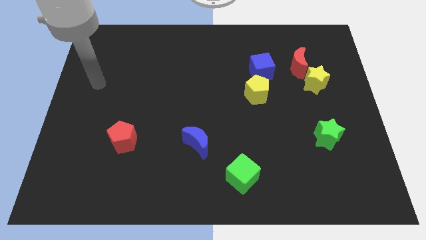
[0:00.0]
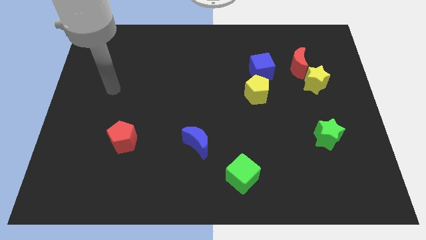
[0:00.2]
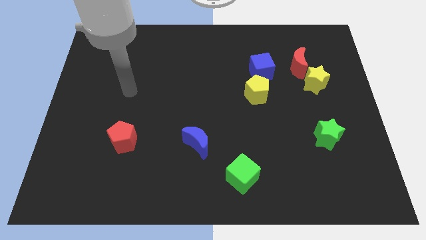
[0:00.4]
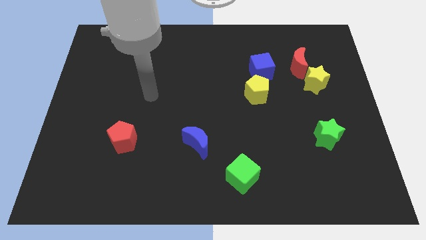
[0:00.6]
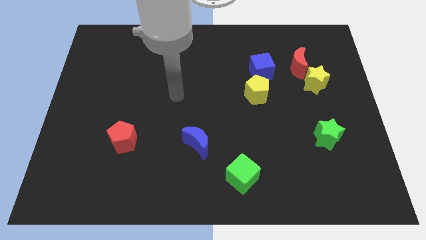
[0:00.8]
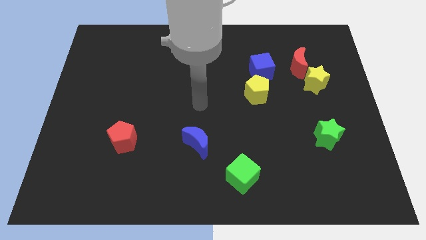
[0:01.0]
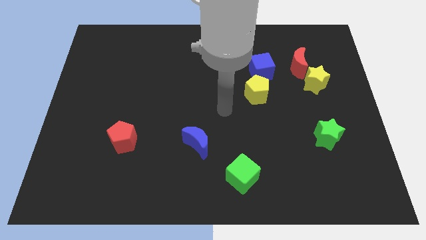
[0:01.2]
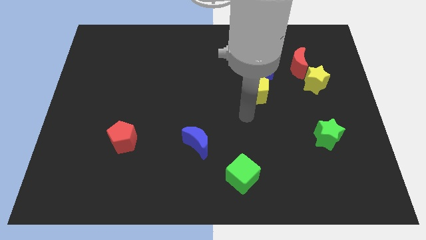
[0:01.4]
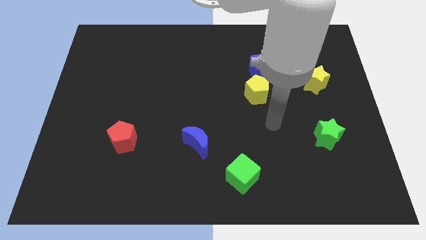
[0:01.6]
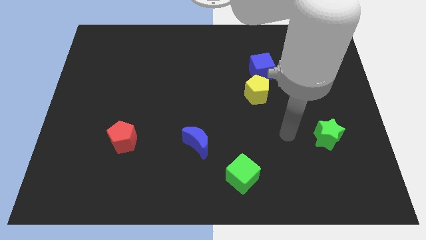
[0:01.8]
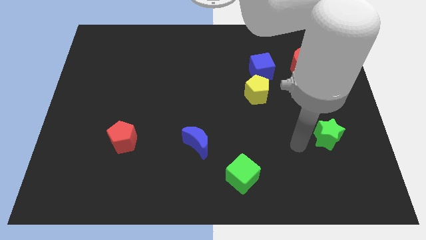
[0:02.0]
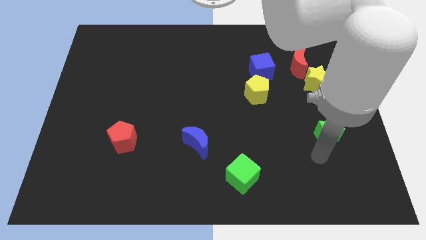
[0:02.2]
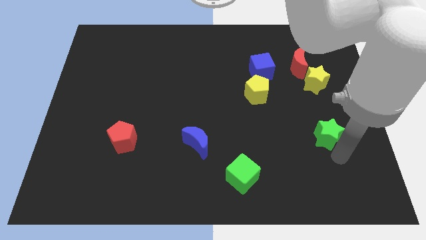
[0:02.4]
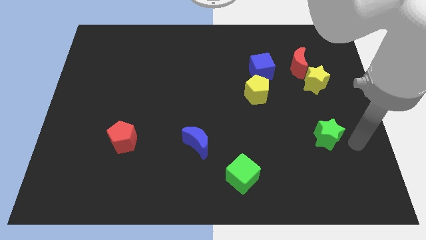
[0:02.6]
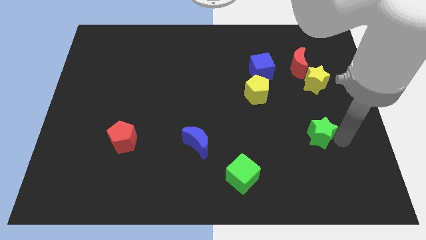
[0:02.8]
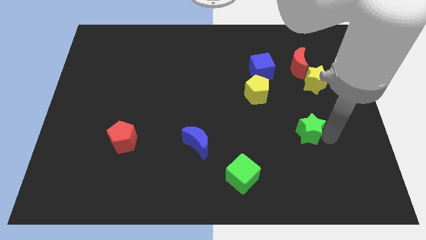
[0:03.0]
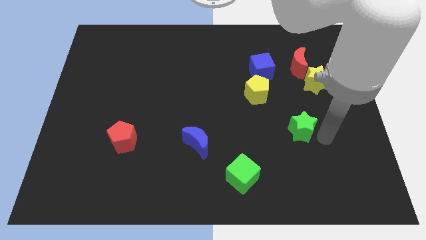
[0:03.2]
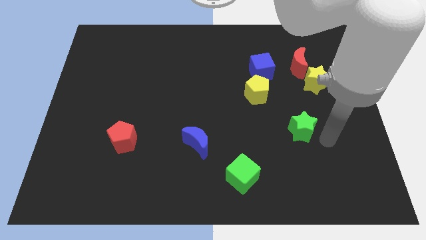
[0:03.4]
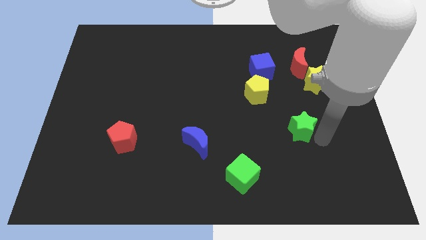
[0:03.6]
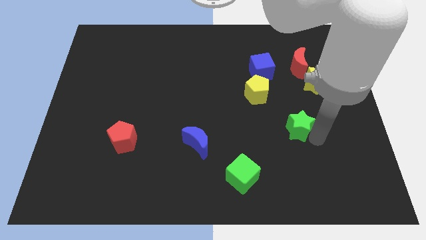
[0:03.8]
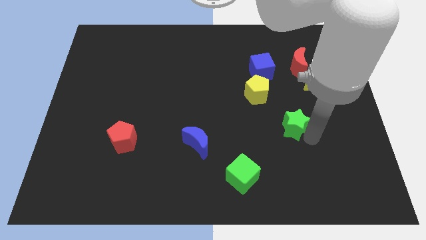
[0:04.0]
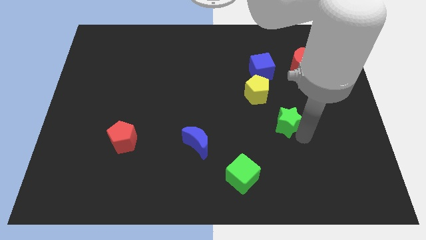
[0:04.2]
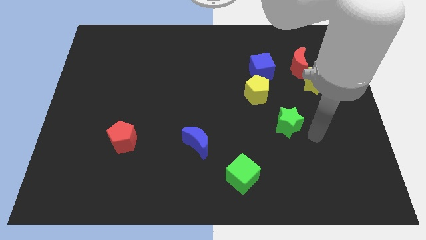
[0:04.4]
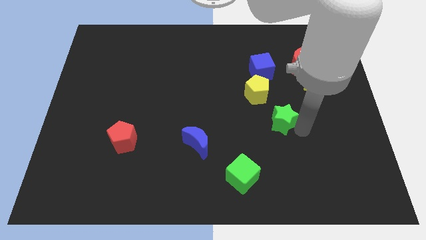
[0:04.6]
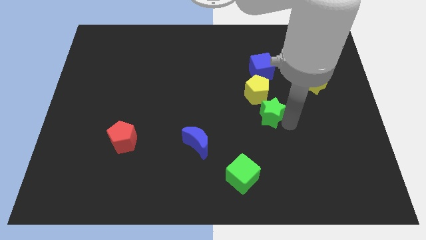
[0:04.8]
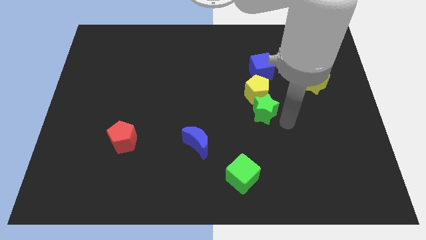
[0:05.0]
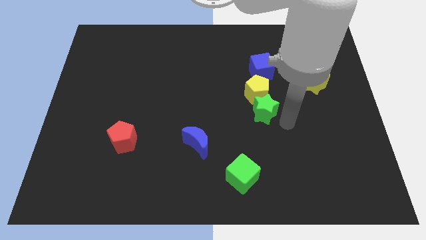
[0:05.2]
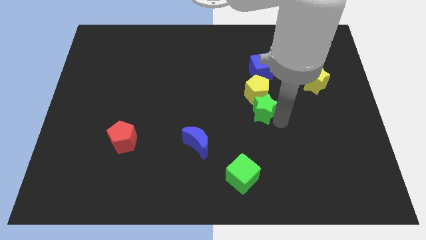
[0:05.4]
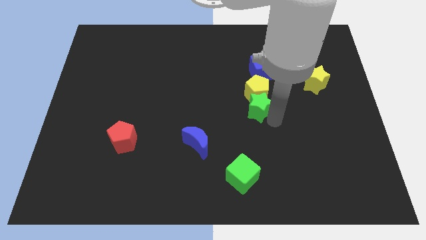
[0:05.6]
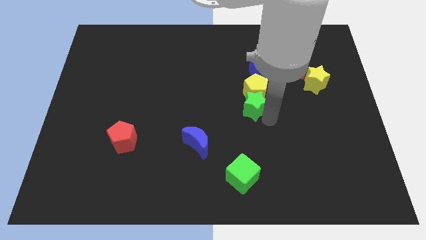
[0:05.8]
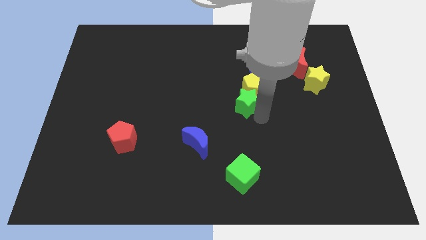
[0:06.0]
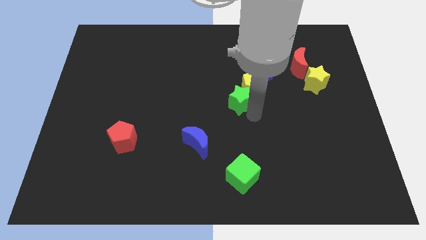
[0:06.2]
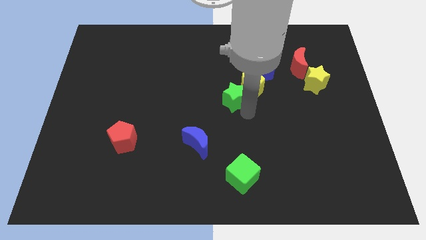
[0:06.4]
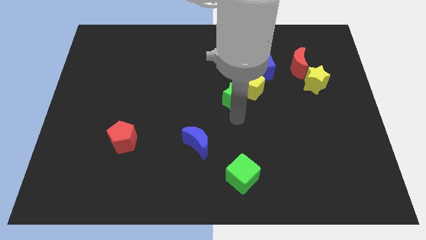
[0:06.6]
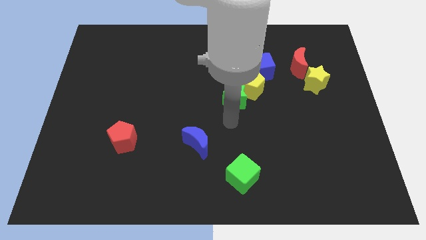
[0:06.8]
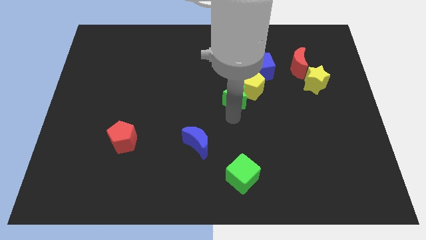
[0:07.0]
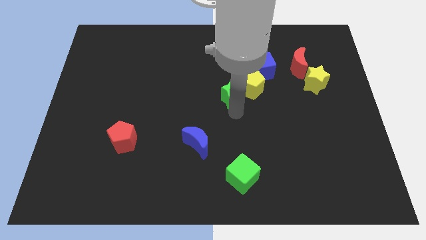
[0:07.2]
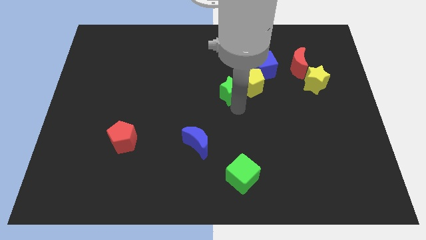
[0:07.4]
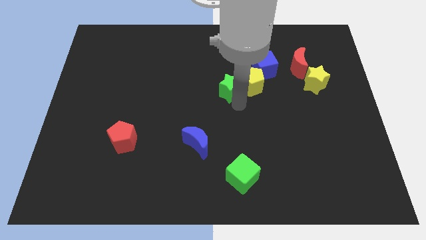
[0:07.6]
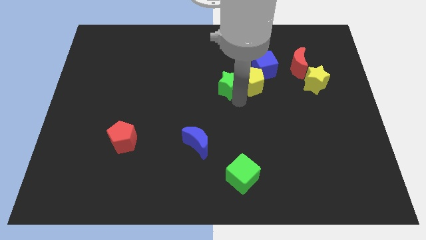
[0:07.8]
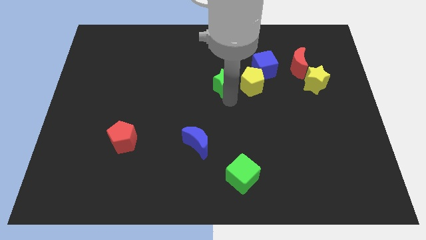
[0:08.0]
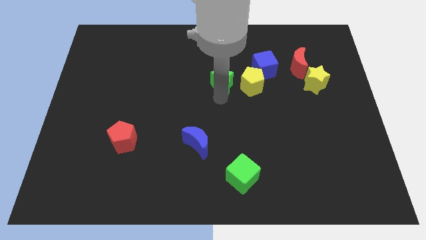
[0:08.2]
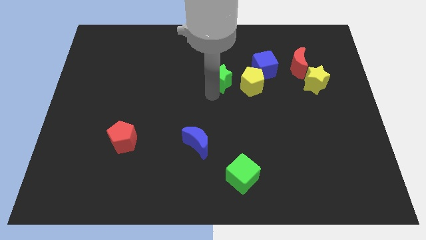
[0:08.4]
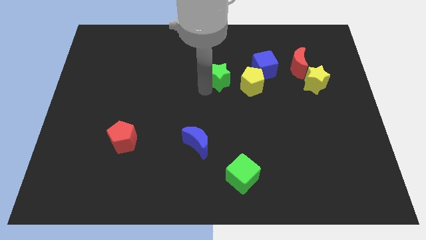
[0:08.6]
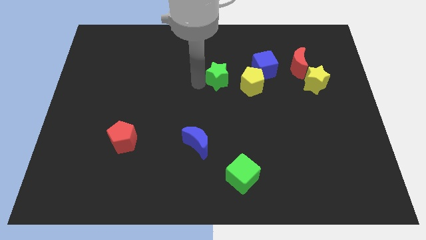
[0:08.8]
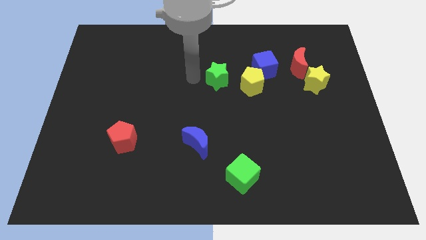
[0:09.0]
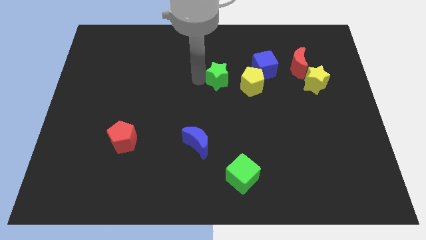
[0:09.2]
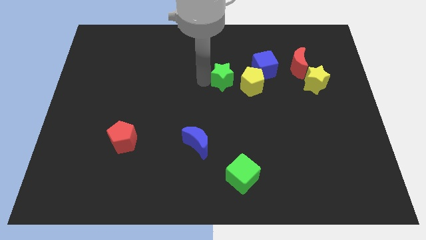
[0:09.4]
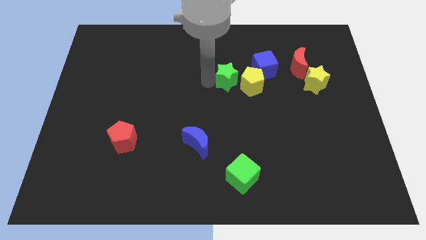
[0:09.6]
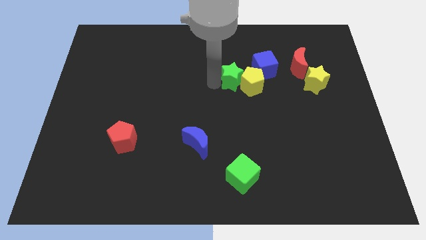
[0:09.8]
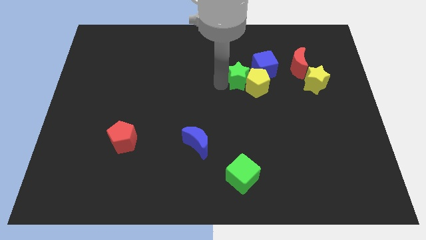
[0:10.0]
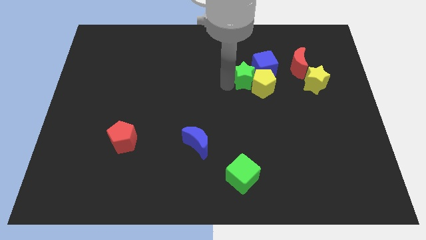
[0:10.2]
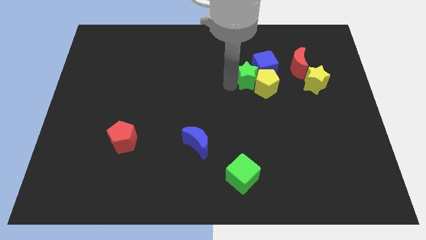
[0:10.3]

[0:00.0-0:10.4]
move the green star to the left side of the red moon

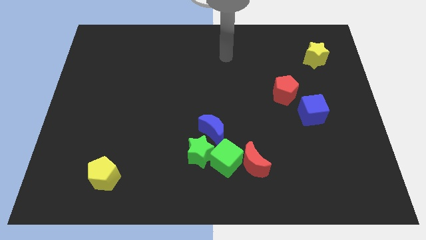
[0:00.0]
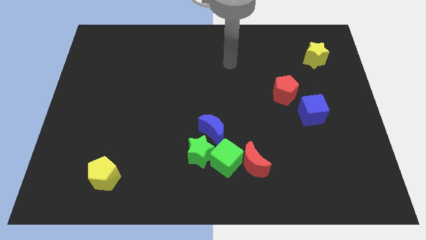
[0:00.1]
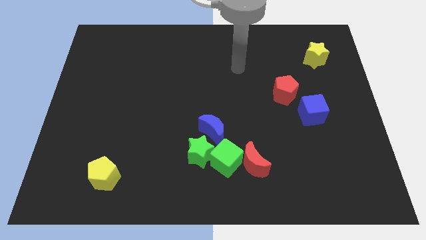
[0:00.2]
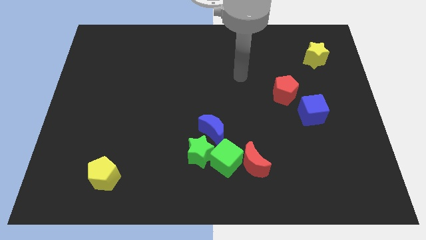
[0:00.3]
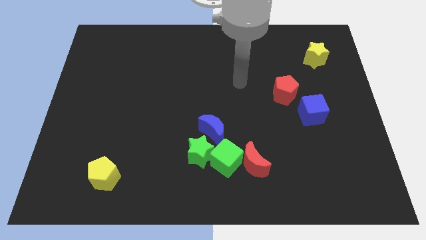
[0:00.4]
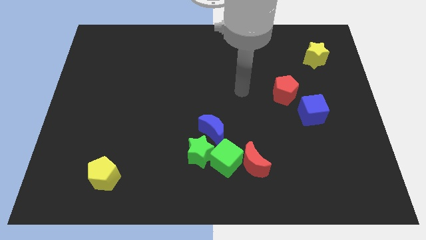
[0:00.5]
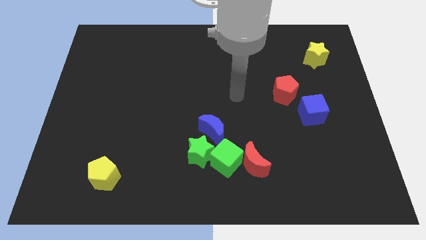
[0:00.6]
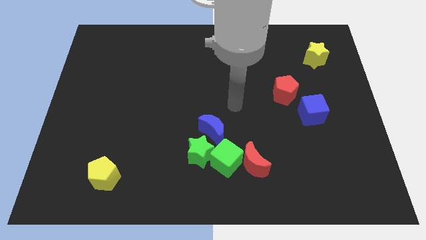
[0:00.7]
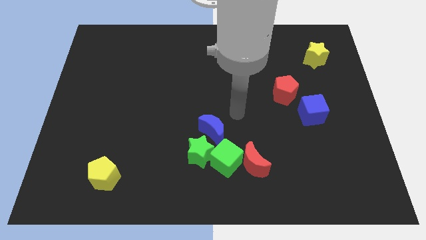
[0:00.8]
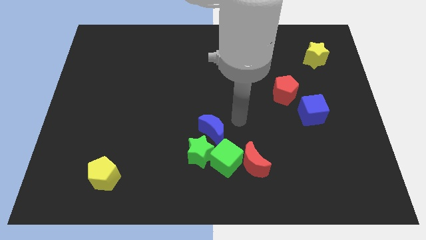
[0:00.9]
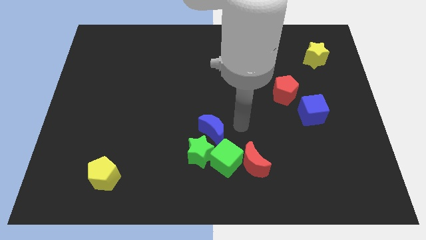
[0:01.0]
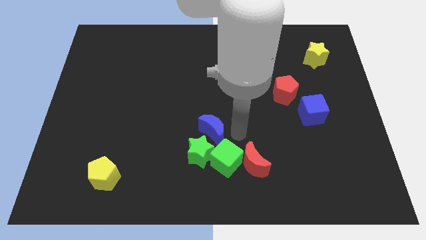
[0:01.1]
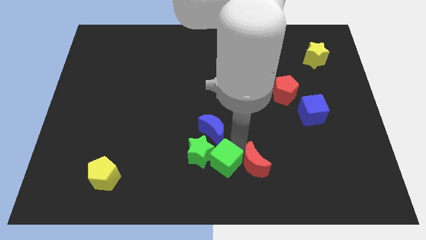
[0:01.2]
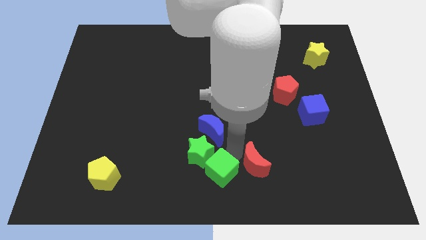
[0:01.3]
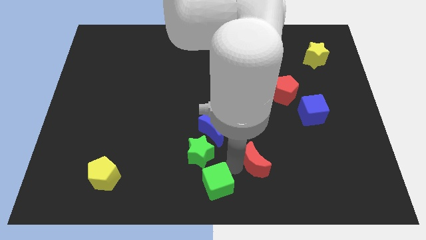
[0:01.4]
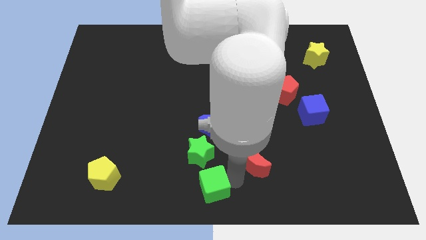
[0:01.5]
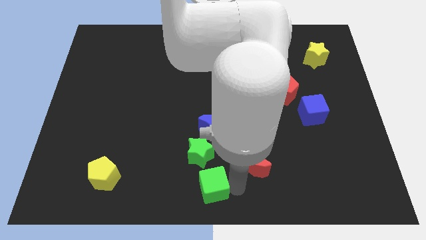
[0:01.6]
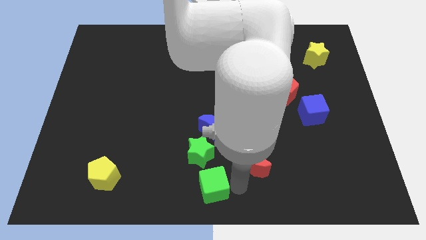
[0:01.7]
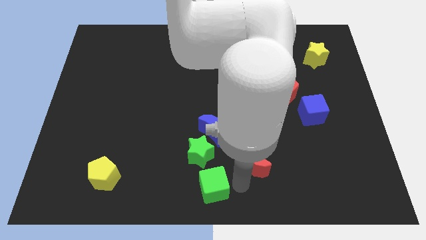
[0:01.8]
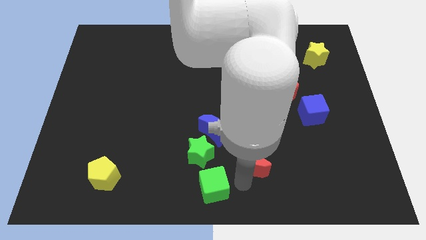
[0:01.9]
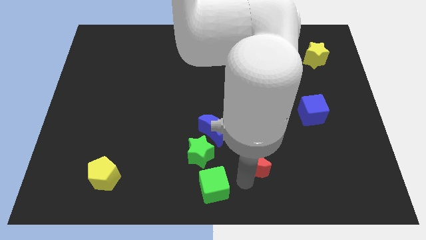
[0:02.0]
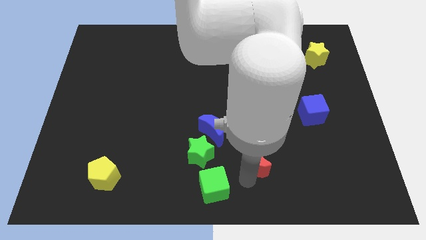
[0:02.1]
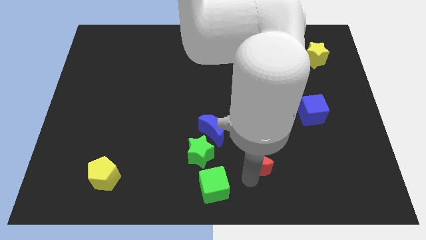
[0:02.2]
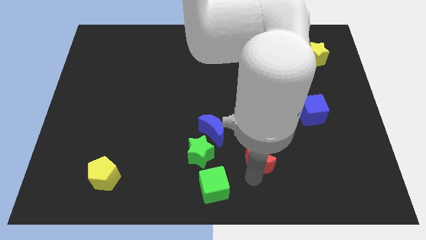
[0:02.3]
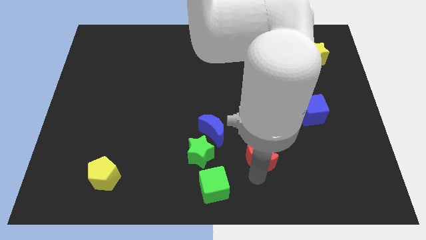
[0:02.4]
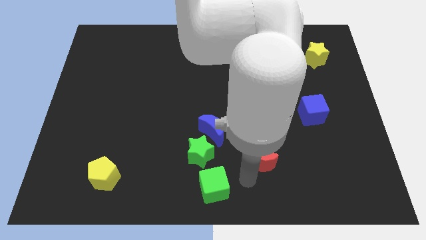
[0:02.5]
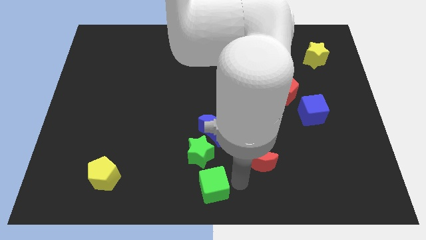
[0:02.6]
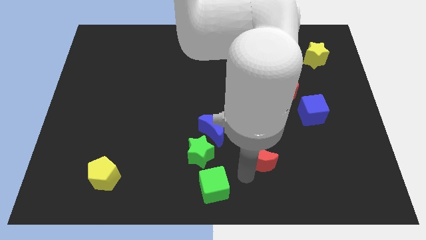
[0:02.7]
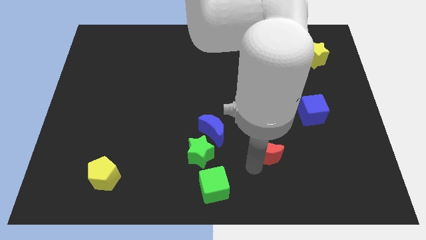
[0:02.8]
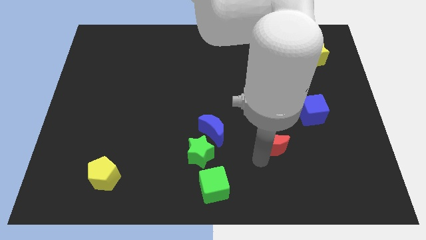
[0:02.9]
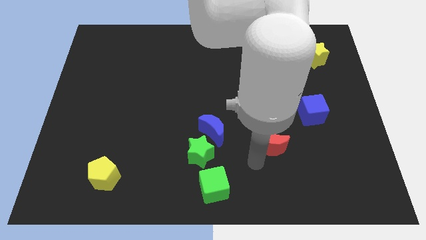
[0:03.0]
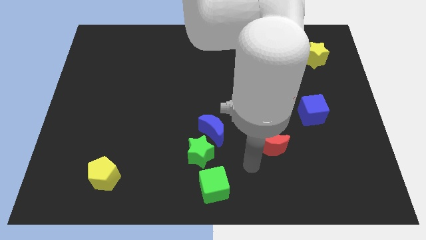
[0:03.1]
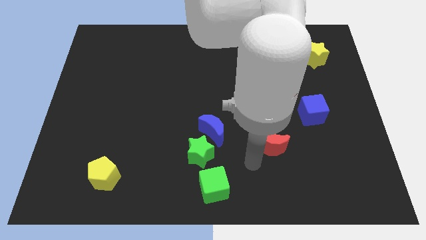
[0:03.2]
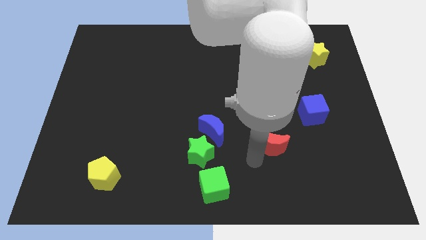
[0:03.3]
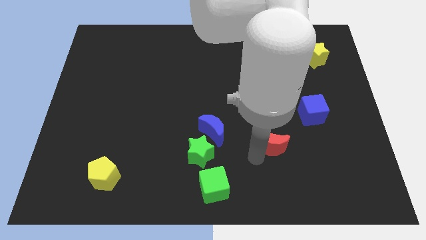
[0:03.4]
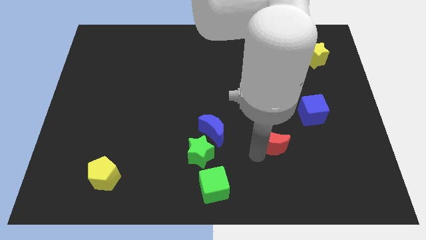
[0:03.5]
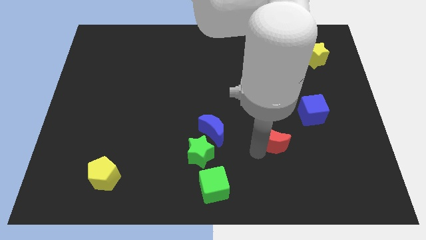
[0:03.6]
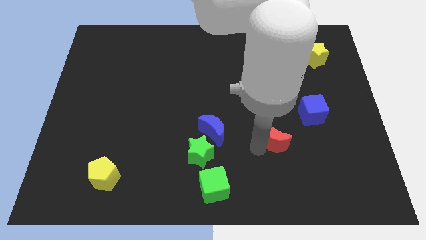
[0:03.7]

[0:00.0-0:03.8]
slide the red moon to the bottom of the red pentagon
